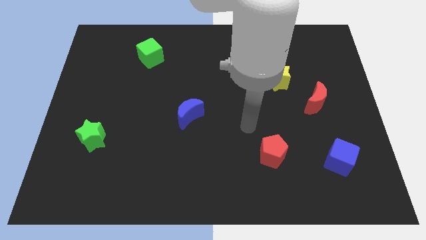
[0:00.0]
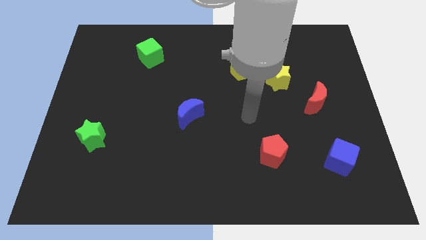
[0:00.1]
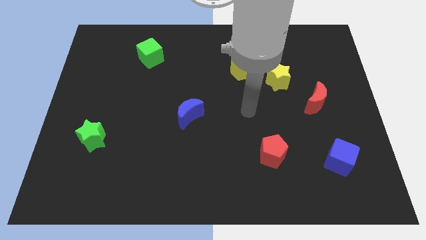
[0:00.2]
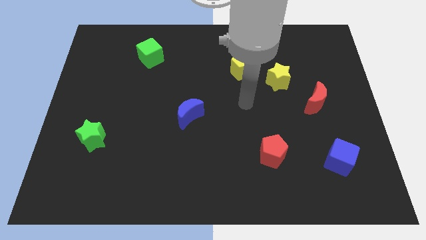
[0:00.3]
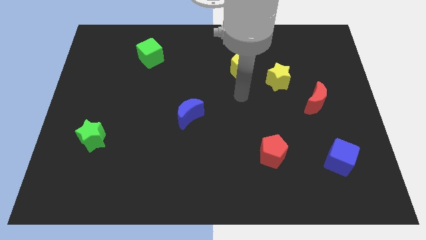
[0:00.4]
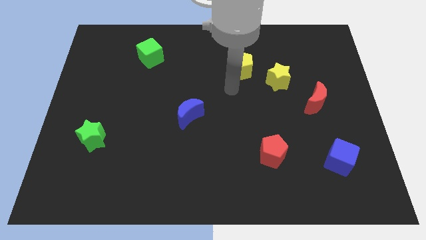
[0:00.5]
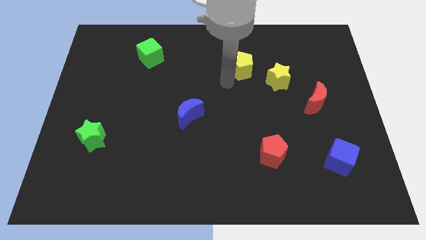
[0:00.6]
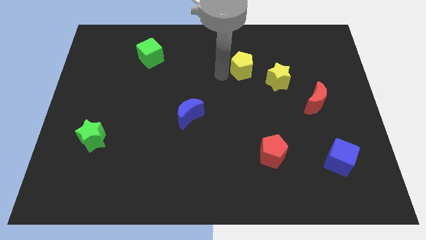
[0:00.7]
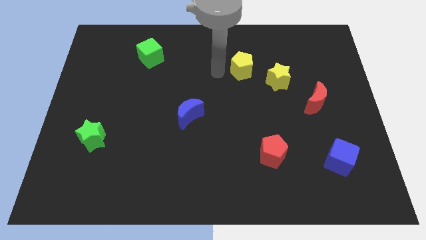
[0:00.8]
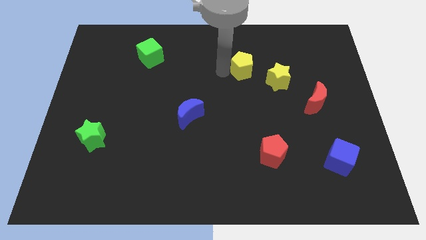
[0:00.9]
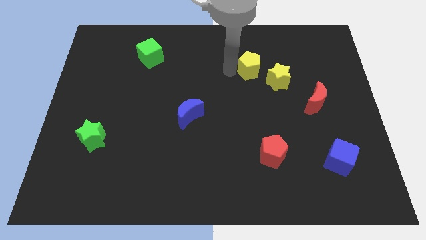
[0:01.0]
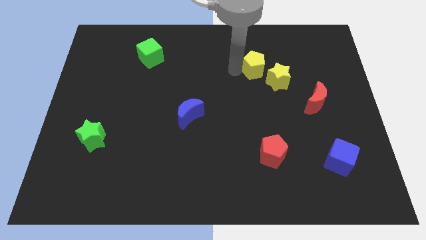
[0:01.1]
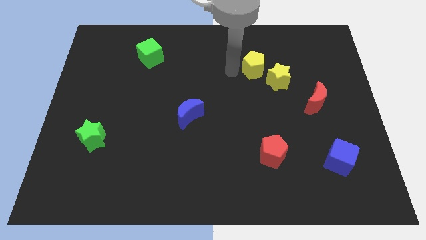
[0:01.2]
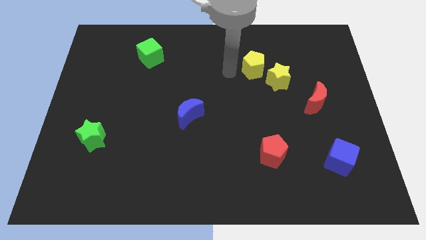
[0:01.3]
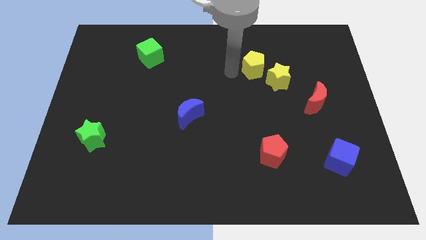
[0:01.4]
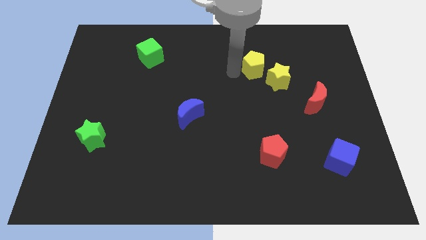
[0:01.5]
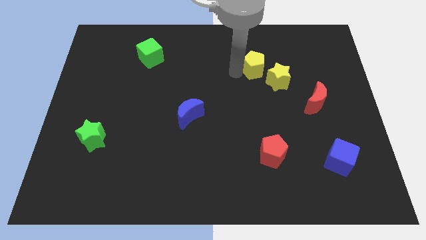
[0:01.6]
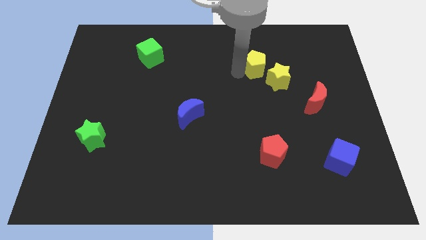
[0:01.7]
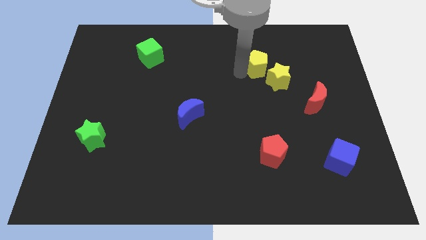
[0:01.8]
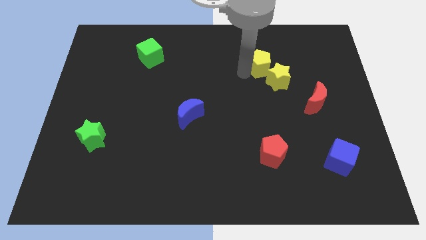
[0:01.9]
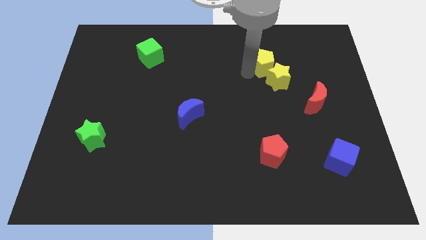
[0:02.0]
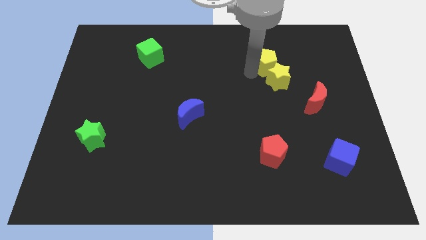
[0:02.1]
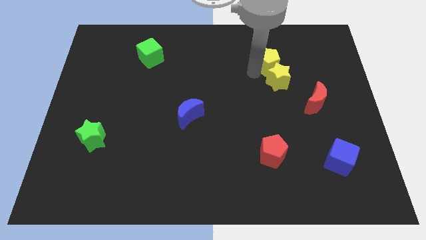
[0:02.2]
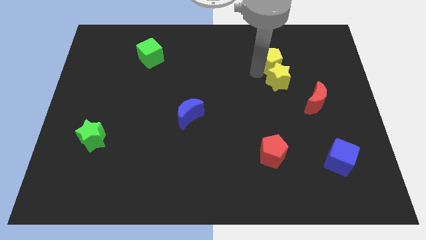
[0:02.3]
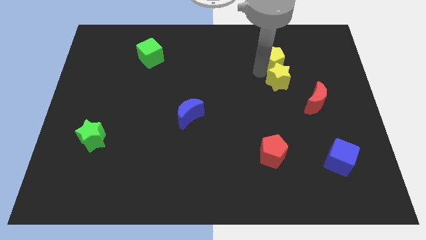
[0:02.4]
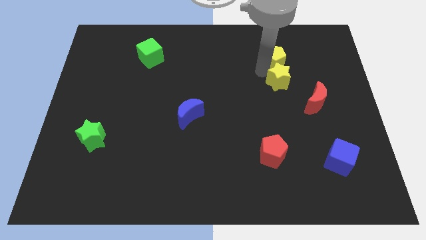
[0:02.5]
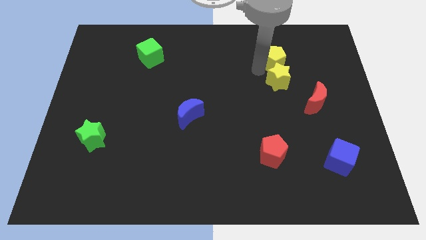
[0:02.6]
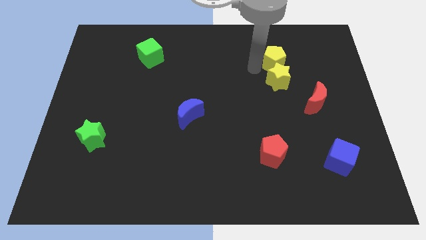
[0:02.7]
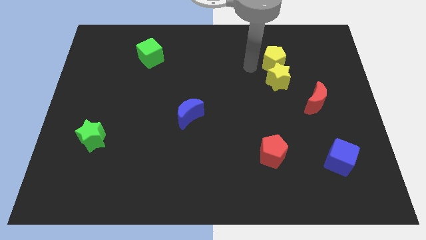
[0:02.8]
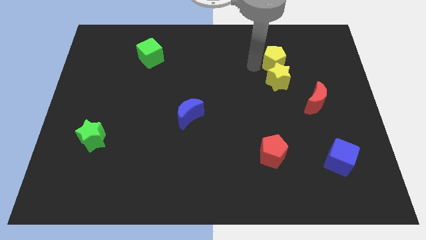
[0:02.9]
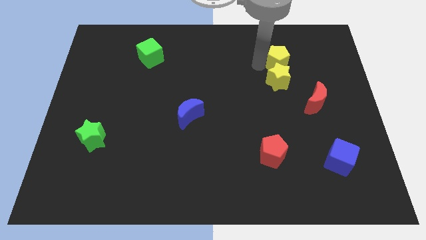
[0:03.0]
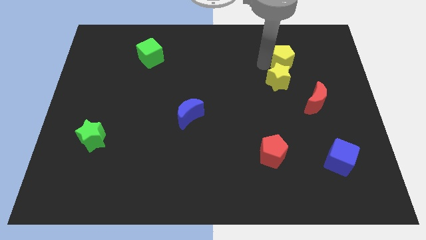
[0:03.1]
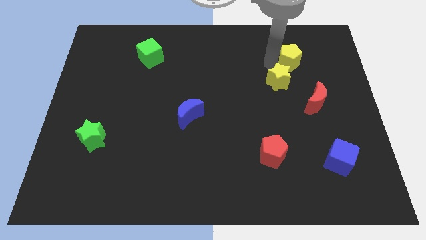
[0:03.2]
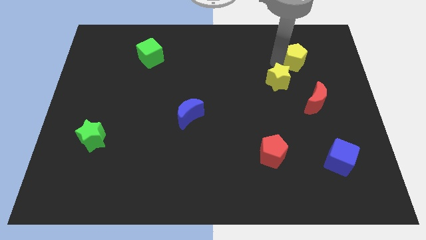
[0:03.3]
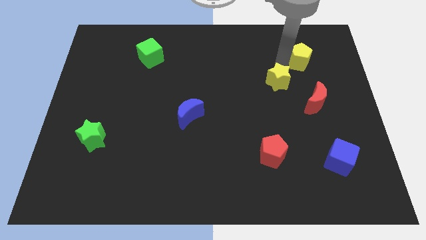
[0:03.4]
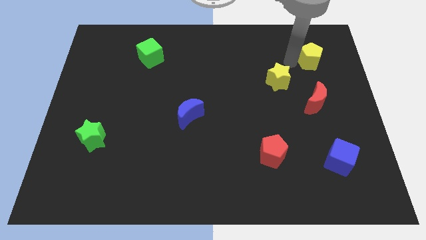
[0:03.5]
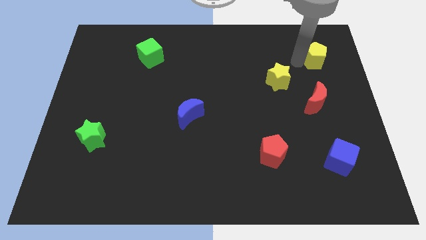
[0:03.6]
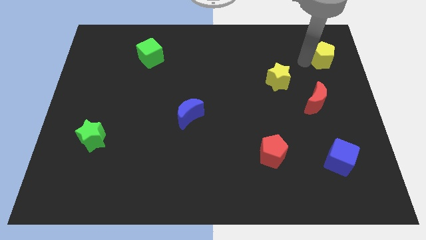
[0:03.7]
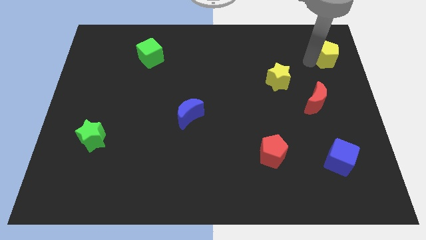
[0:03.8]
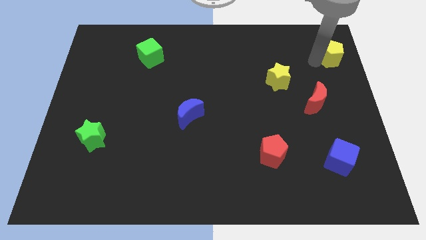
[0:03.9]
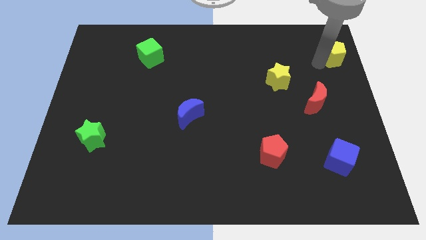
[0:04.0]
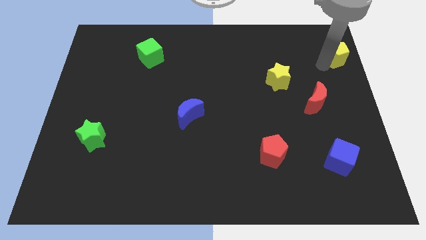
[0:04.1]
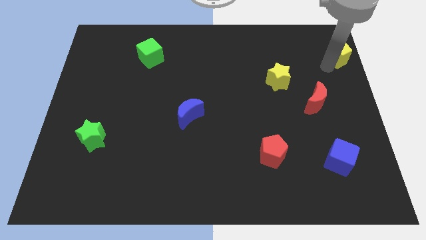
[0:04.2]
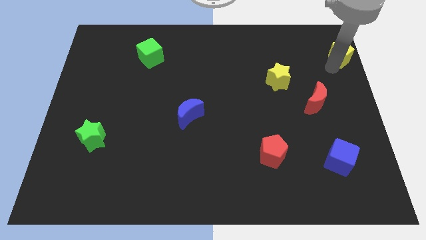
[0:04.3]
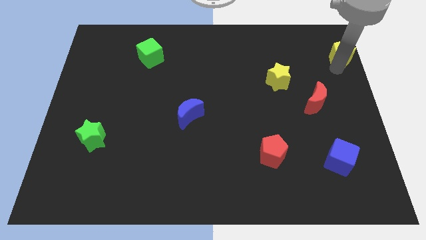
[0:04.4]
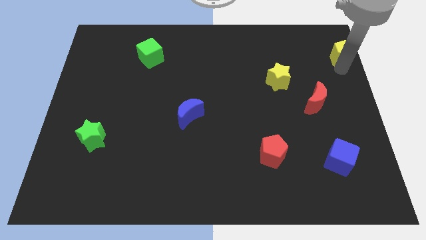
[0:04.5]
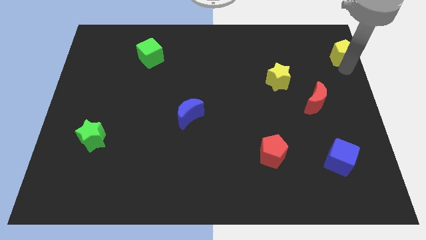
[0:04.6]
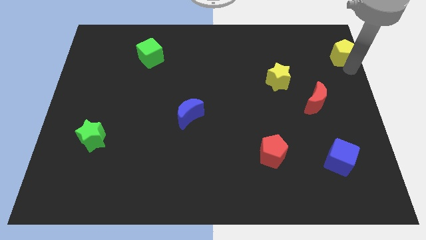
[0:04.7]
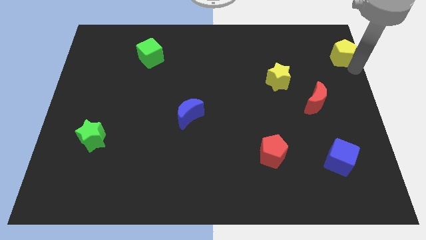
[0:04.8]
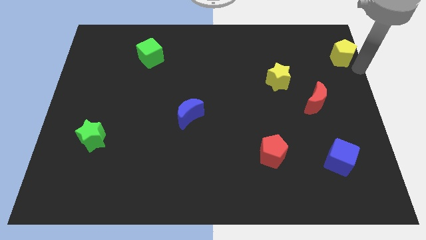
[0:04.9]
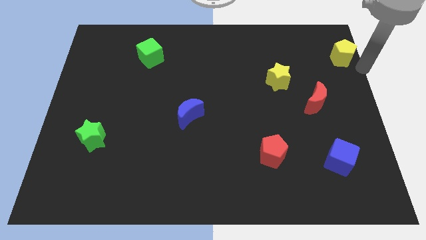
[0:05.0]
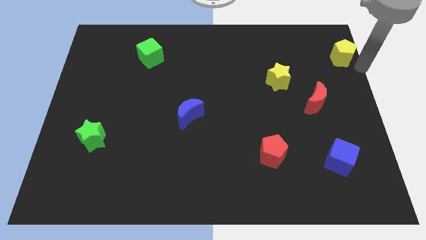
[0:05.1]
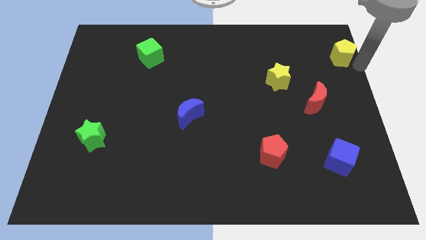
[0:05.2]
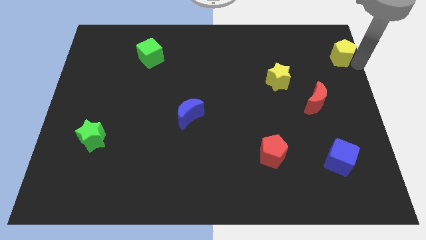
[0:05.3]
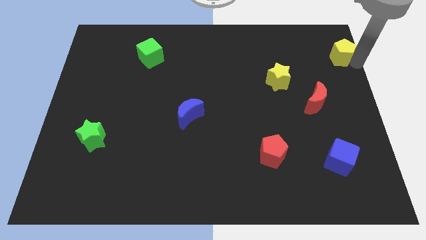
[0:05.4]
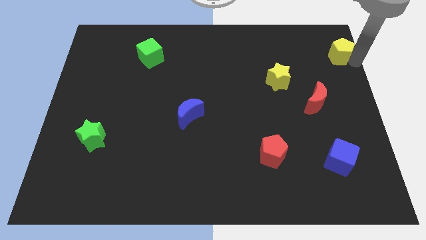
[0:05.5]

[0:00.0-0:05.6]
slide the yellow pentagon to the top right of the board
